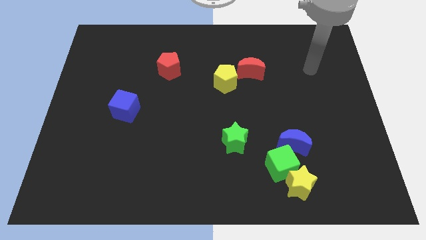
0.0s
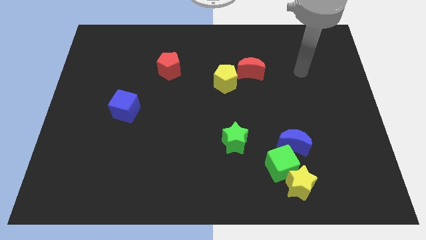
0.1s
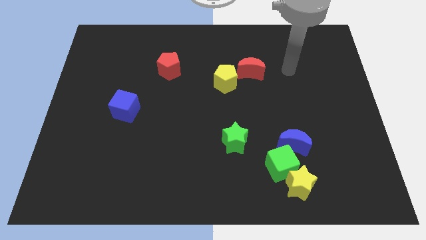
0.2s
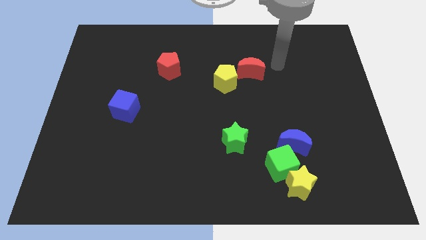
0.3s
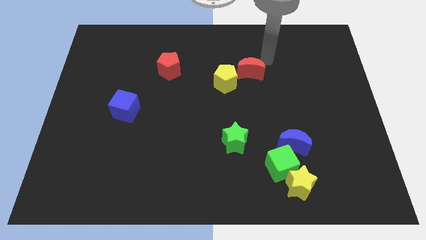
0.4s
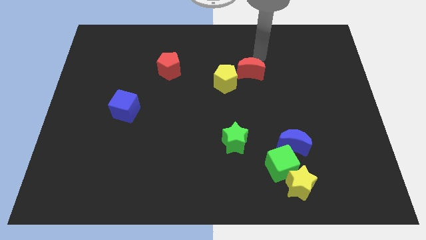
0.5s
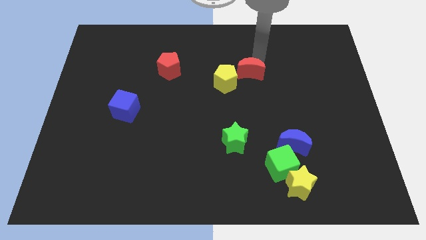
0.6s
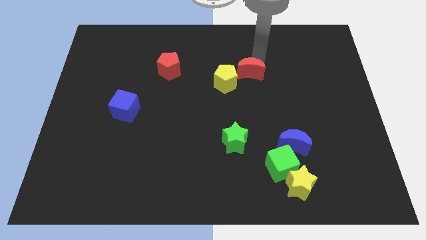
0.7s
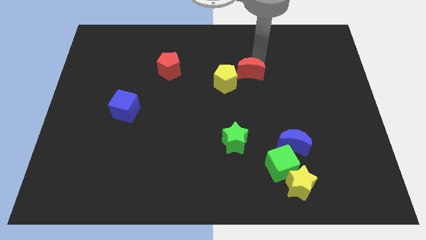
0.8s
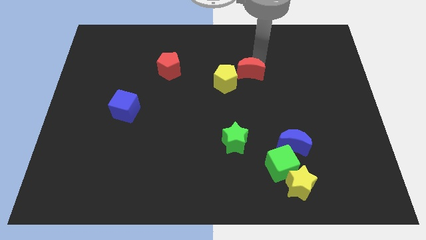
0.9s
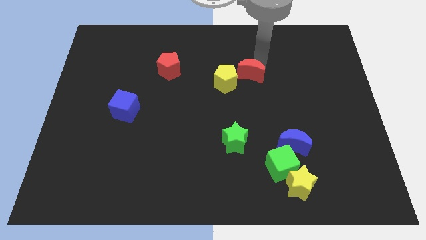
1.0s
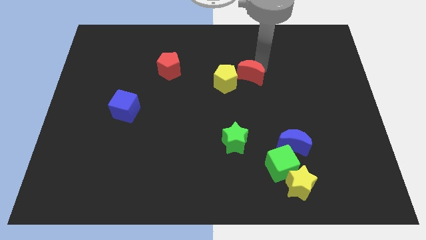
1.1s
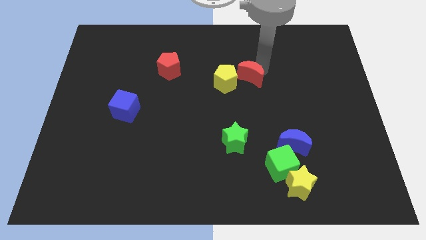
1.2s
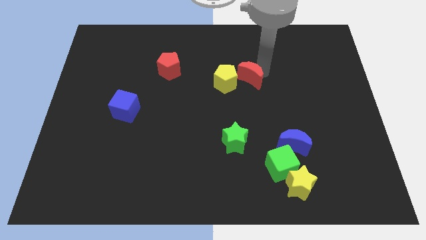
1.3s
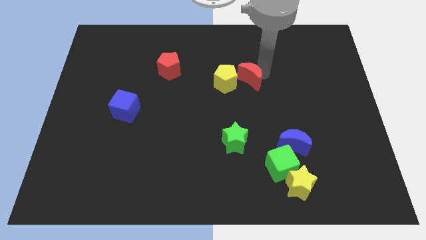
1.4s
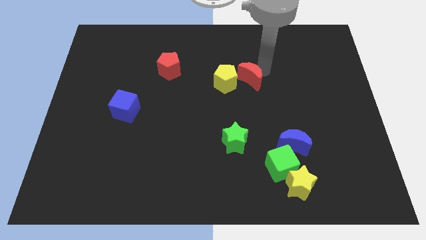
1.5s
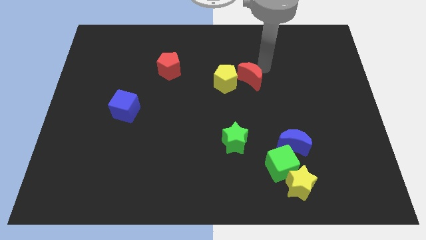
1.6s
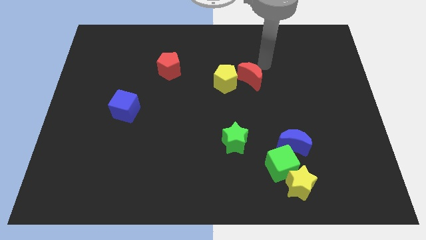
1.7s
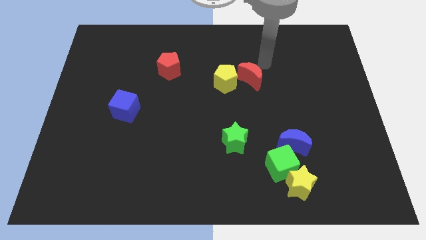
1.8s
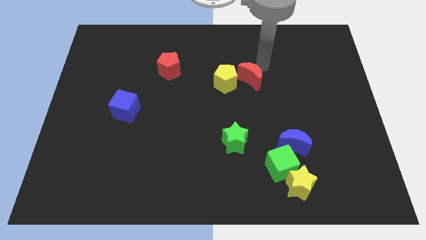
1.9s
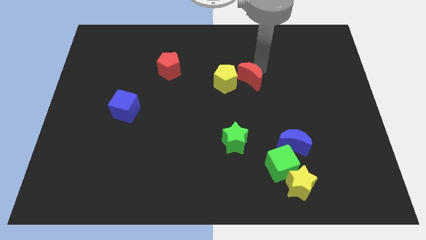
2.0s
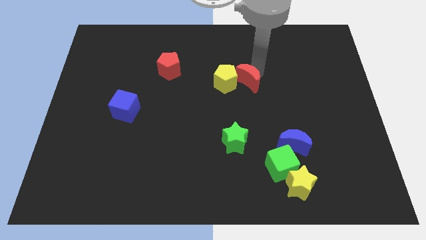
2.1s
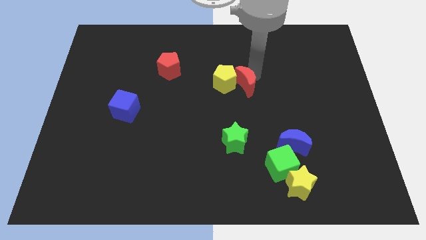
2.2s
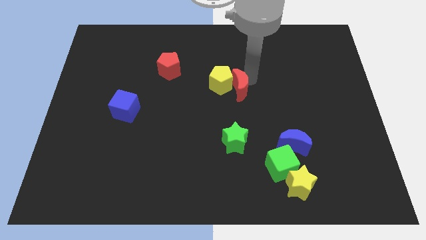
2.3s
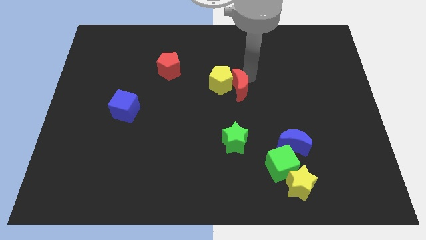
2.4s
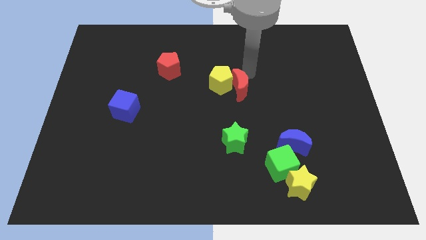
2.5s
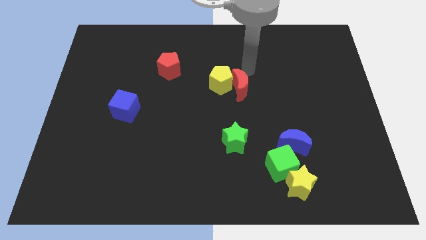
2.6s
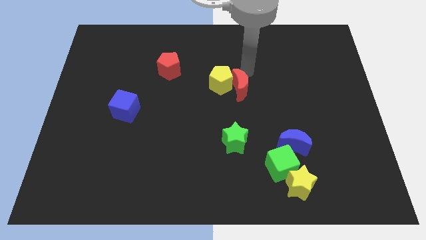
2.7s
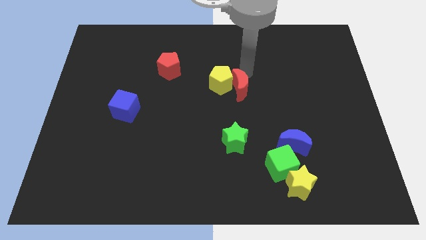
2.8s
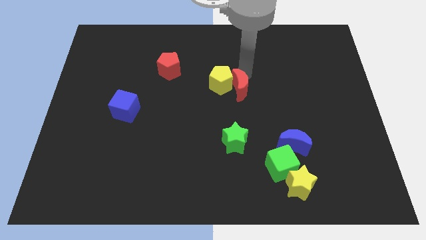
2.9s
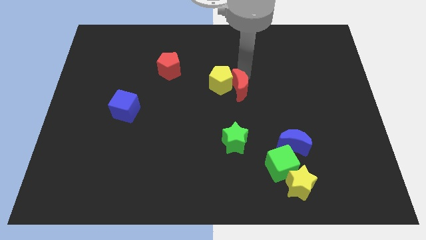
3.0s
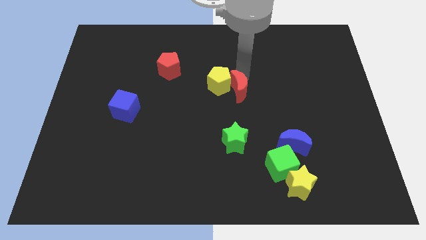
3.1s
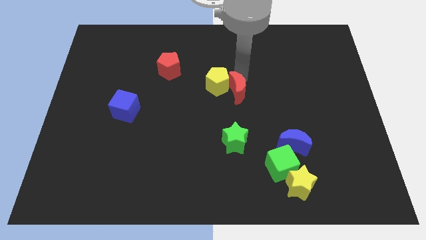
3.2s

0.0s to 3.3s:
slide the red moon somewhat diagonally down and to the left

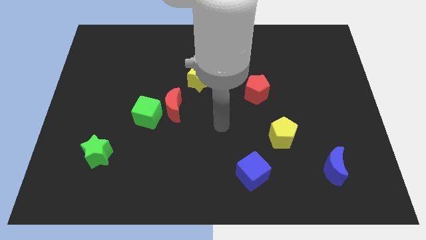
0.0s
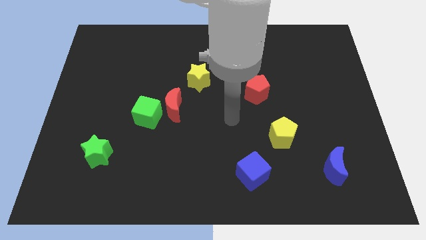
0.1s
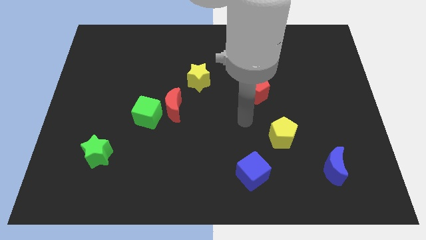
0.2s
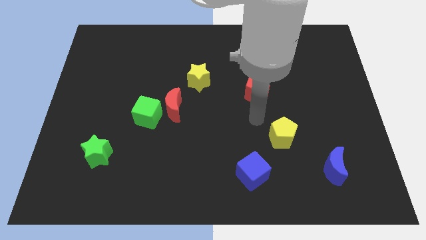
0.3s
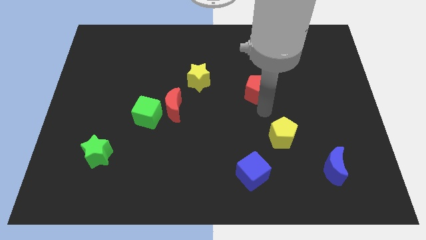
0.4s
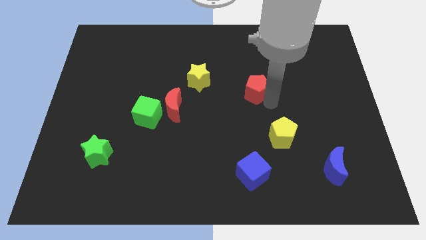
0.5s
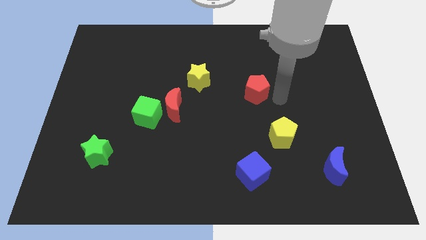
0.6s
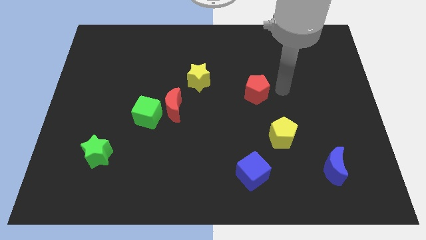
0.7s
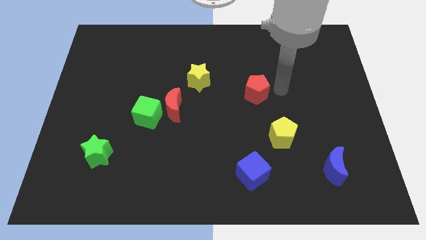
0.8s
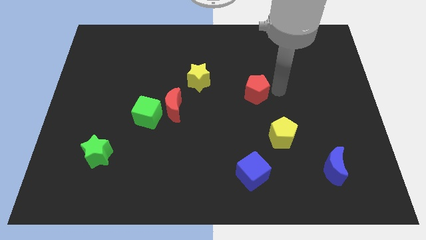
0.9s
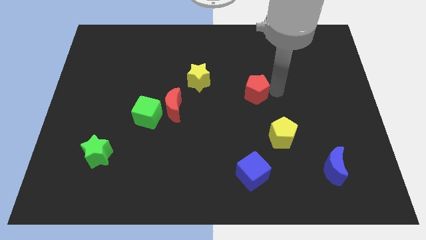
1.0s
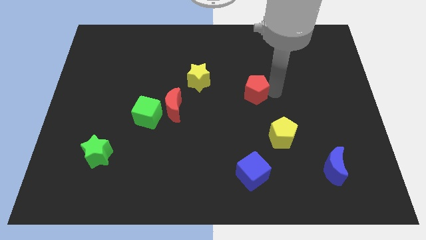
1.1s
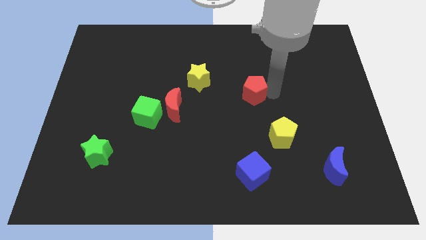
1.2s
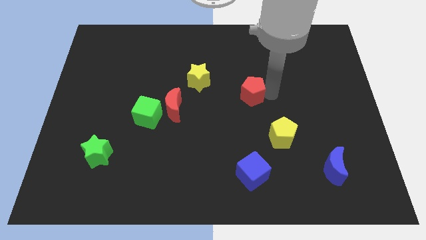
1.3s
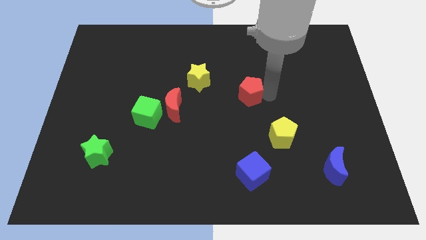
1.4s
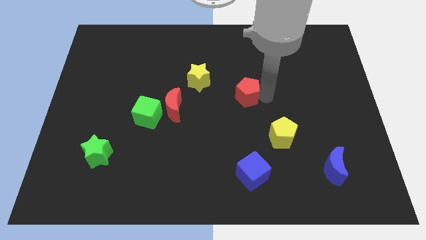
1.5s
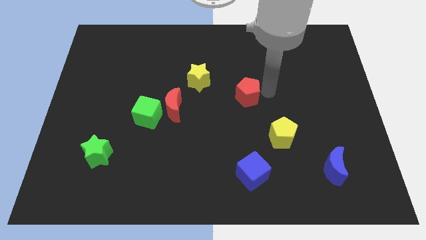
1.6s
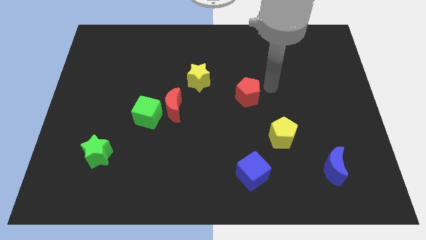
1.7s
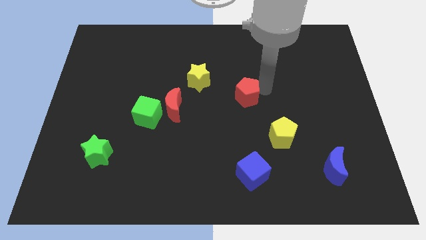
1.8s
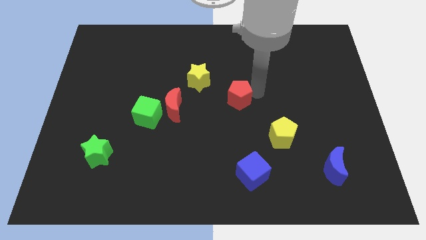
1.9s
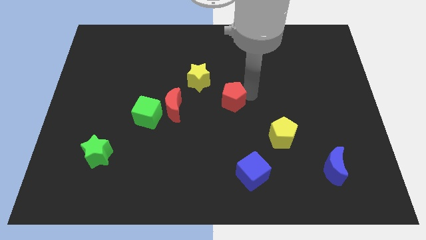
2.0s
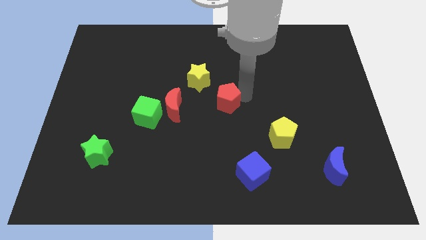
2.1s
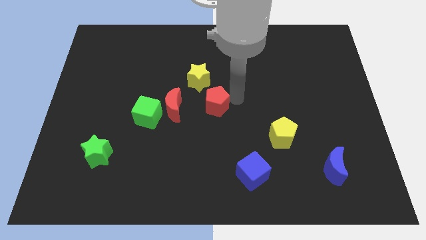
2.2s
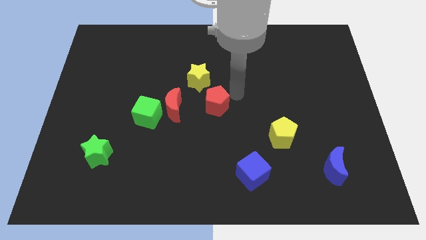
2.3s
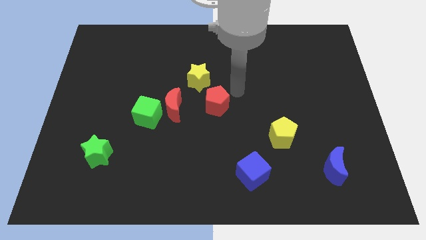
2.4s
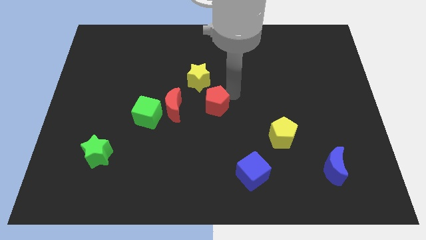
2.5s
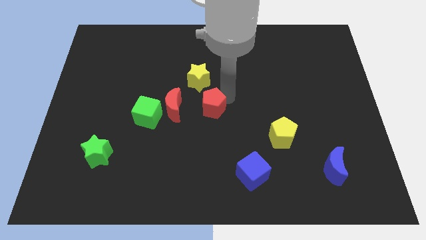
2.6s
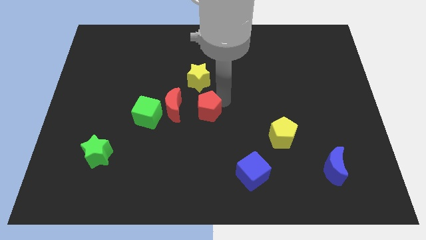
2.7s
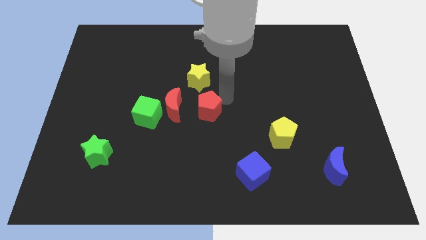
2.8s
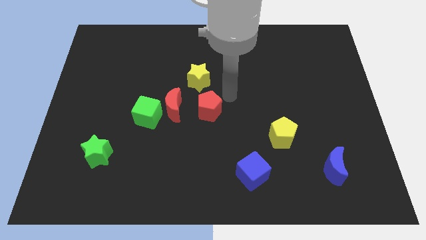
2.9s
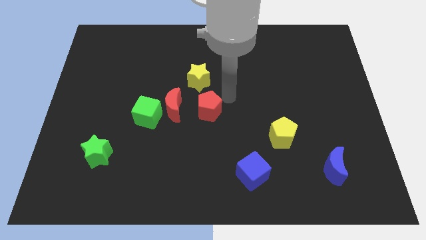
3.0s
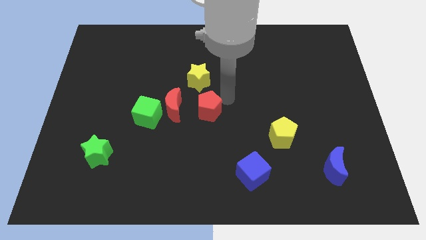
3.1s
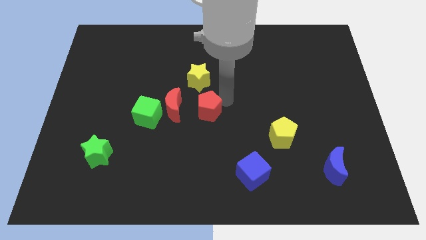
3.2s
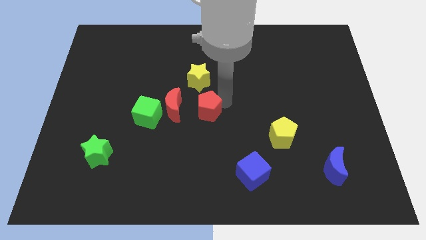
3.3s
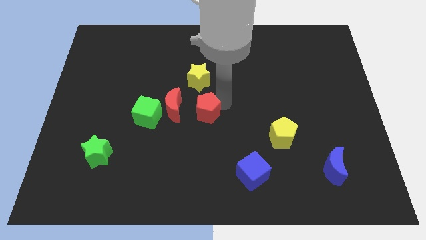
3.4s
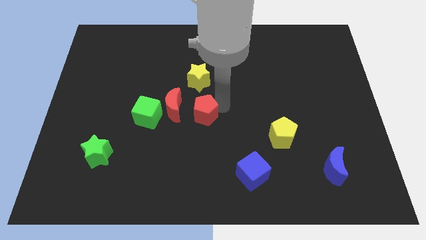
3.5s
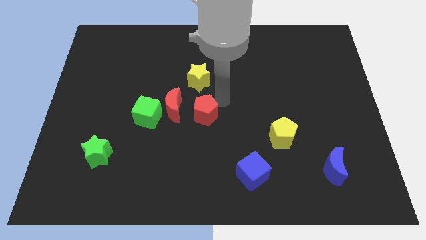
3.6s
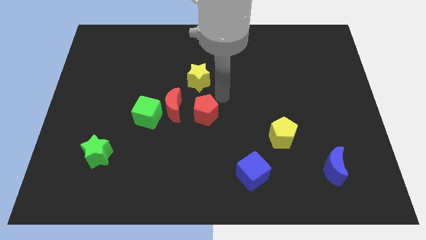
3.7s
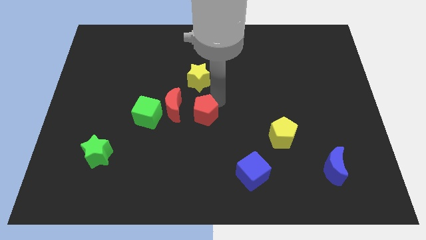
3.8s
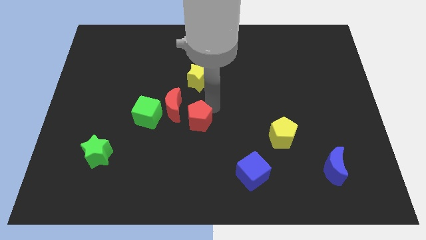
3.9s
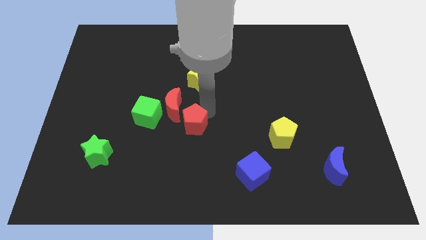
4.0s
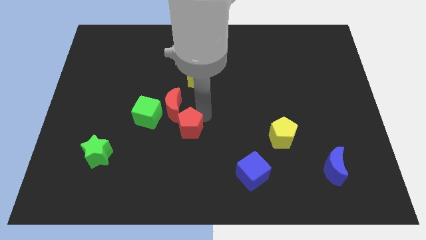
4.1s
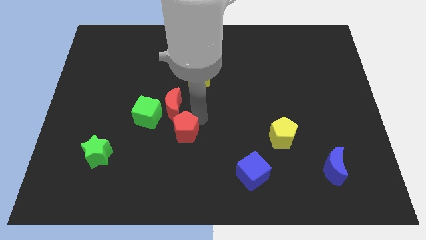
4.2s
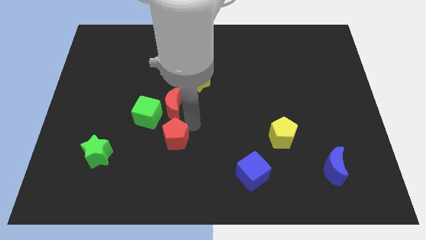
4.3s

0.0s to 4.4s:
push the red pentagon down and then left

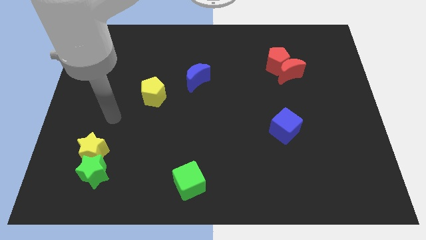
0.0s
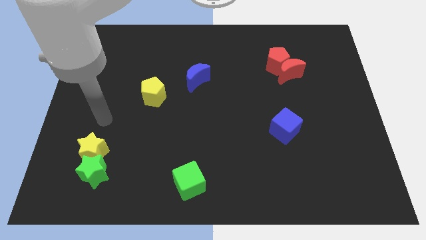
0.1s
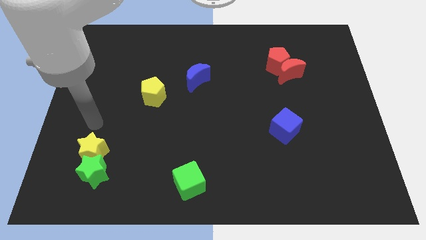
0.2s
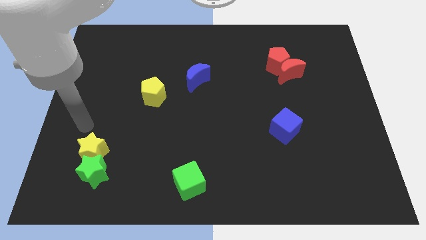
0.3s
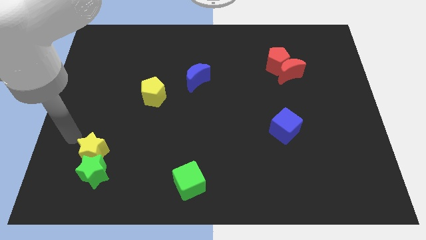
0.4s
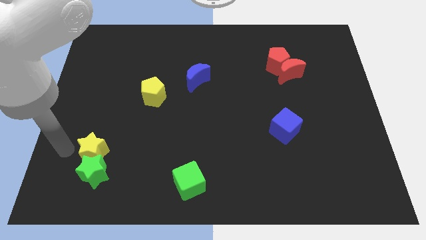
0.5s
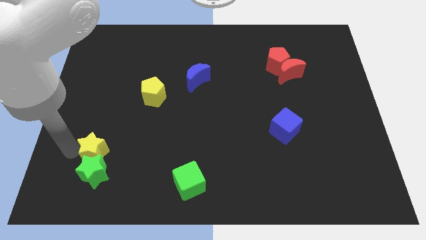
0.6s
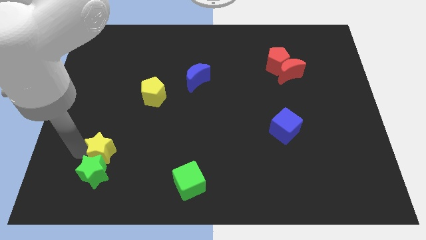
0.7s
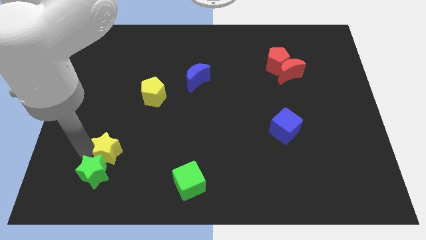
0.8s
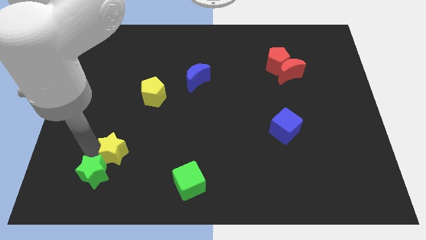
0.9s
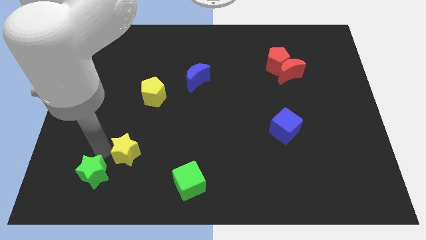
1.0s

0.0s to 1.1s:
push the yellow star right a little bit
